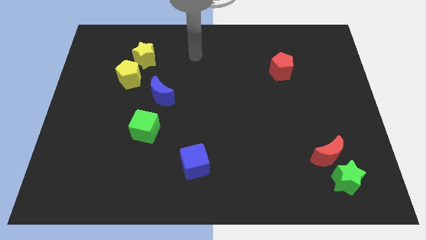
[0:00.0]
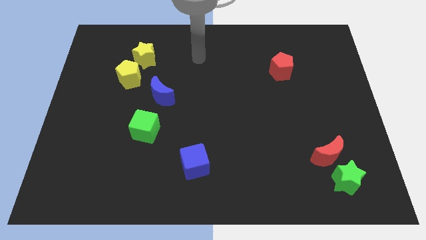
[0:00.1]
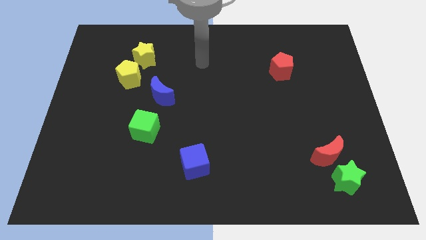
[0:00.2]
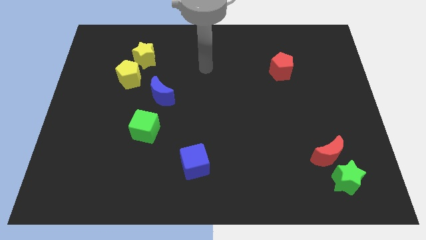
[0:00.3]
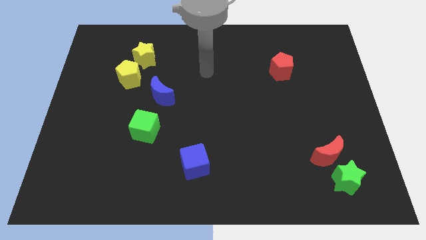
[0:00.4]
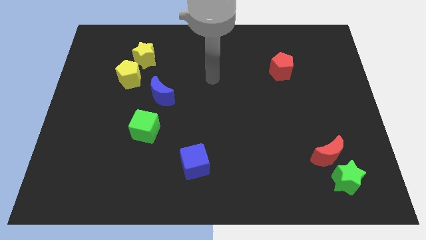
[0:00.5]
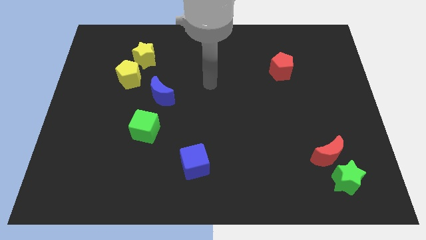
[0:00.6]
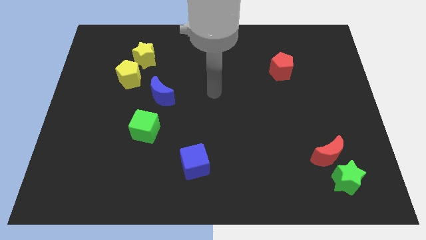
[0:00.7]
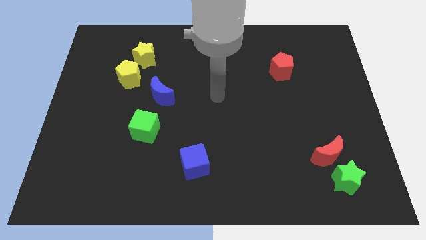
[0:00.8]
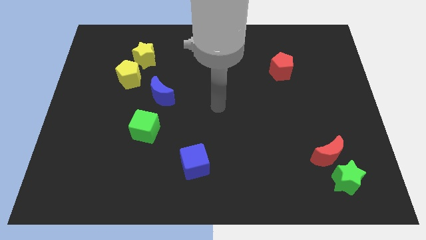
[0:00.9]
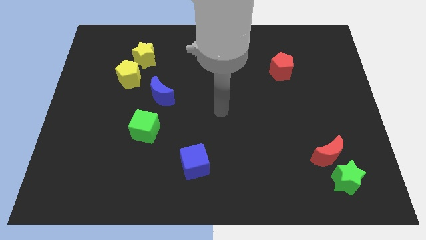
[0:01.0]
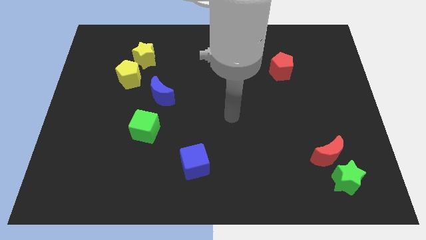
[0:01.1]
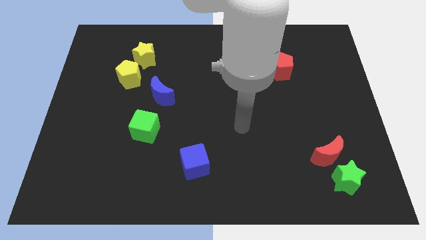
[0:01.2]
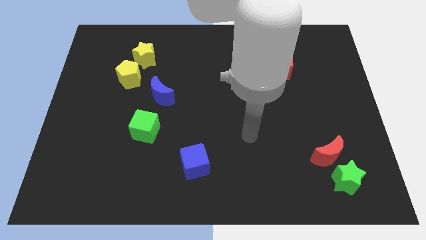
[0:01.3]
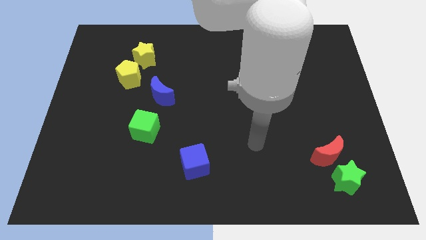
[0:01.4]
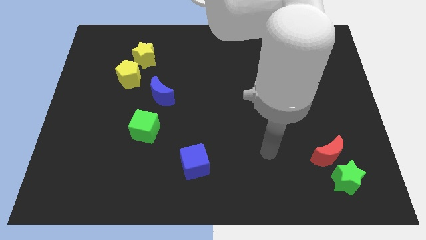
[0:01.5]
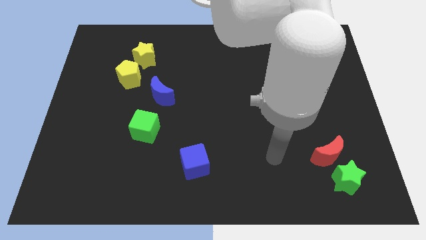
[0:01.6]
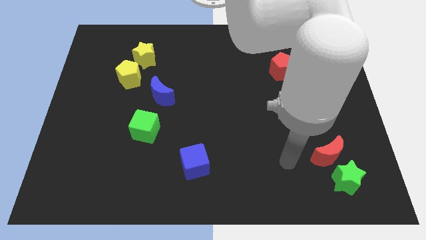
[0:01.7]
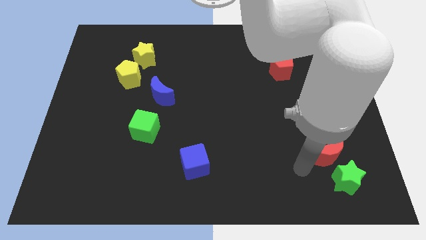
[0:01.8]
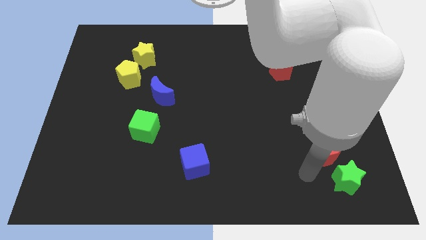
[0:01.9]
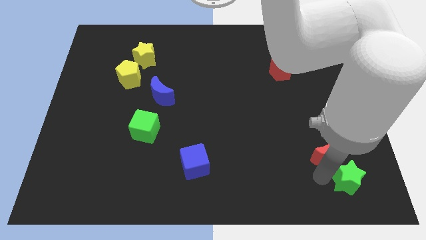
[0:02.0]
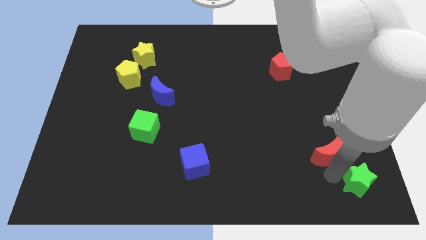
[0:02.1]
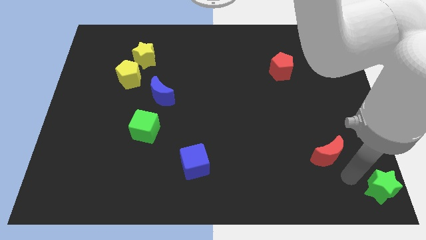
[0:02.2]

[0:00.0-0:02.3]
move the red moon away from the green star

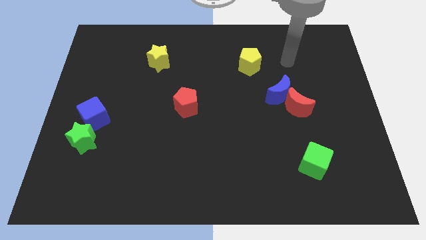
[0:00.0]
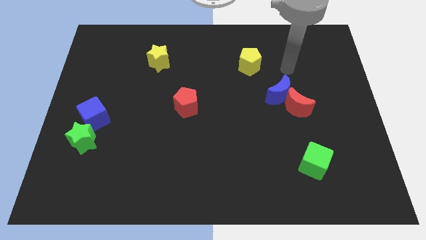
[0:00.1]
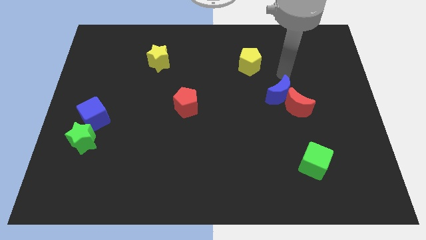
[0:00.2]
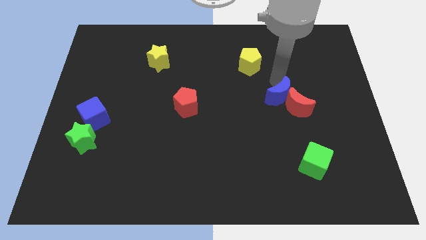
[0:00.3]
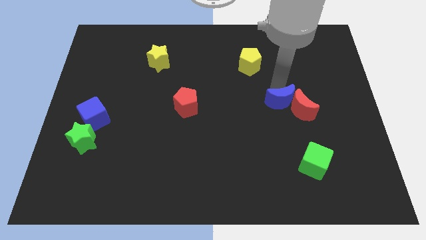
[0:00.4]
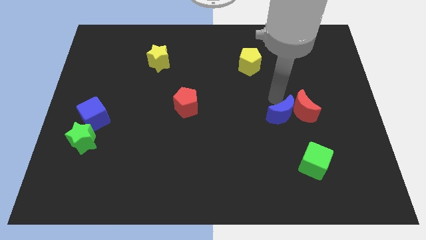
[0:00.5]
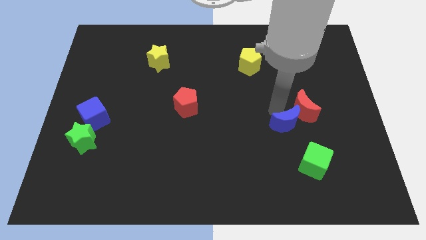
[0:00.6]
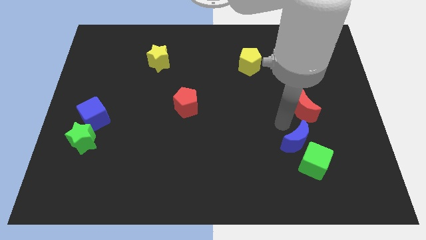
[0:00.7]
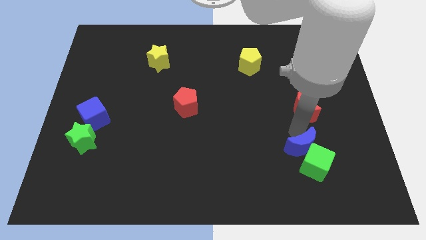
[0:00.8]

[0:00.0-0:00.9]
move the red moon away from the blue moon

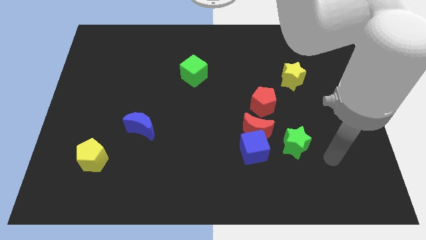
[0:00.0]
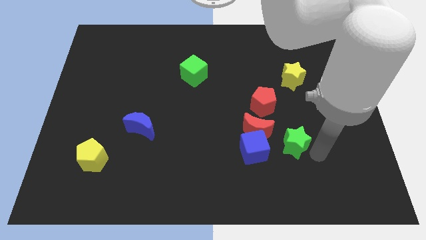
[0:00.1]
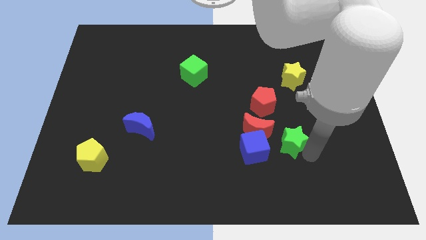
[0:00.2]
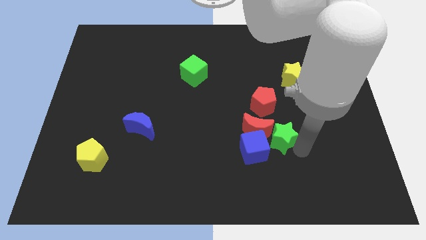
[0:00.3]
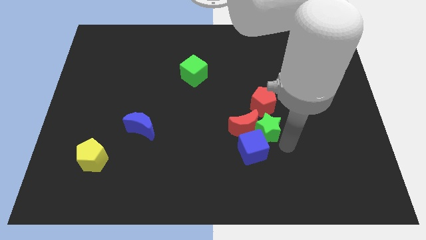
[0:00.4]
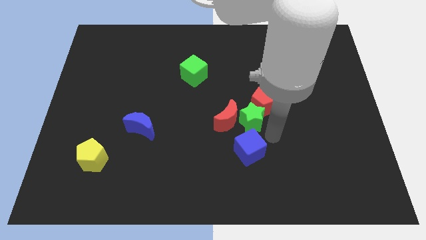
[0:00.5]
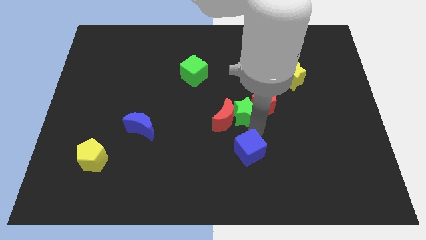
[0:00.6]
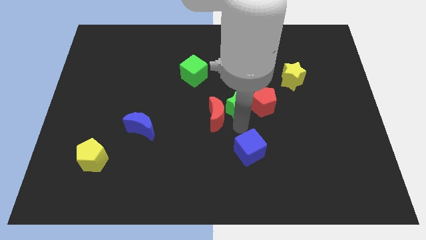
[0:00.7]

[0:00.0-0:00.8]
separate the blue cube from the red moon and green star

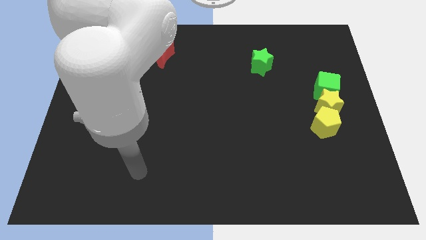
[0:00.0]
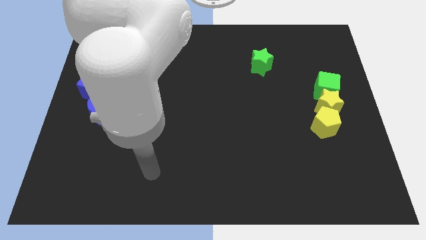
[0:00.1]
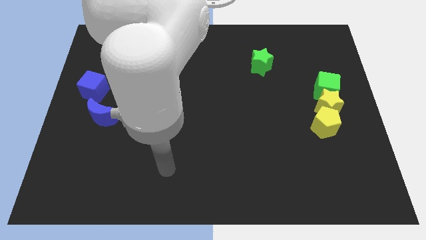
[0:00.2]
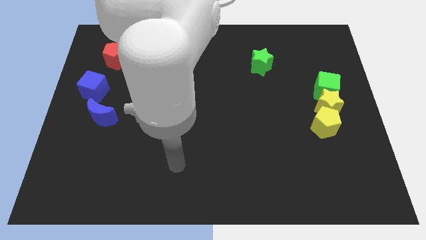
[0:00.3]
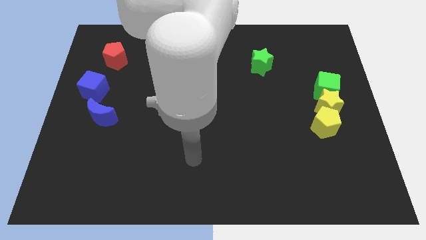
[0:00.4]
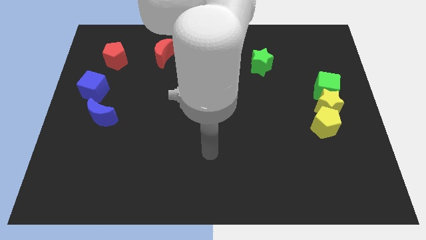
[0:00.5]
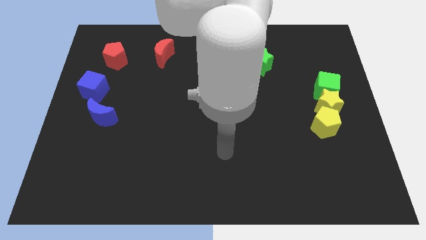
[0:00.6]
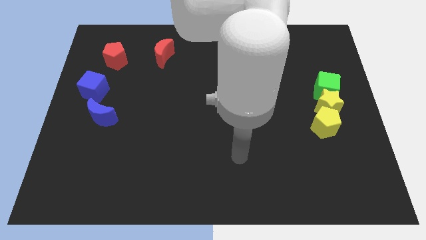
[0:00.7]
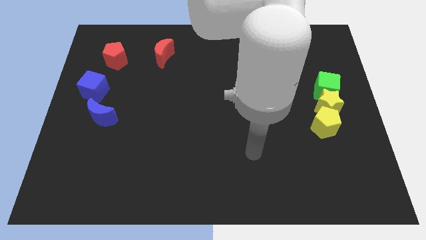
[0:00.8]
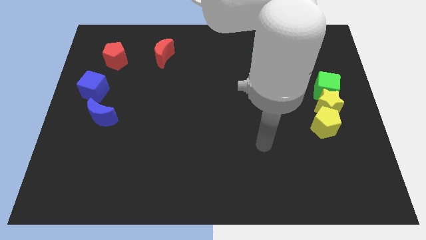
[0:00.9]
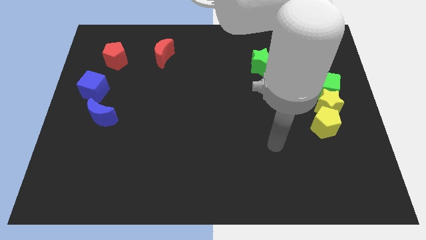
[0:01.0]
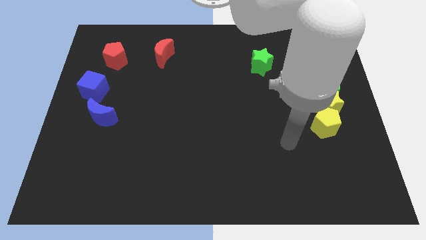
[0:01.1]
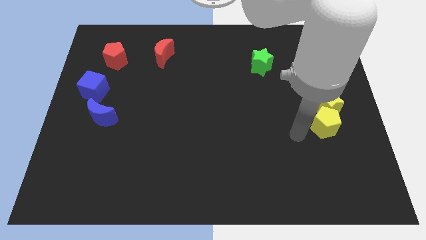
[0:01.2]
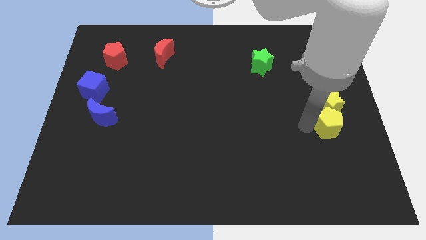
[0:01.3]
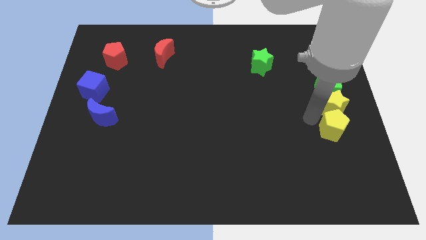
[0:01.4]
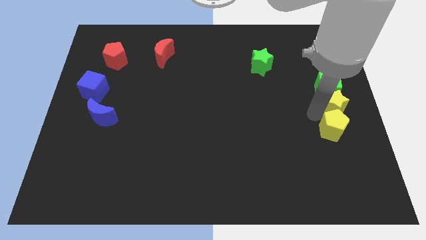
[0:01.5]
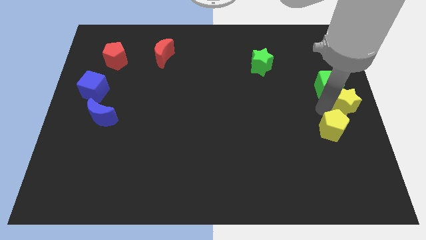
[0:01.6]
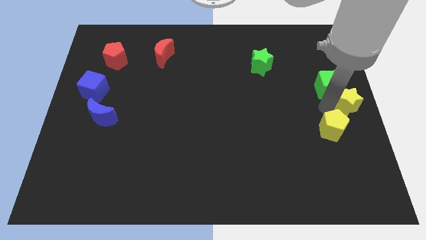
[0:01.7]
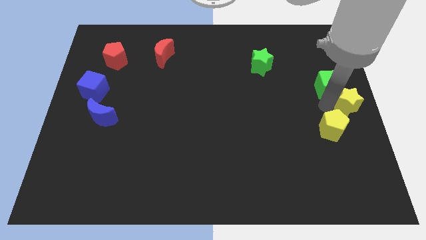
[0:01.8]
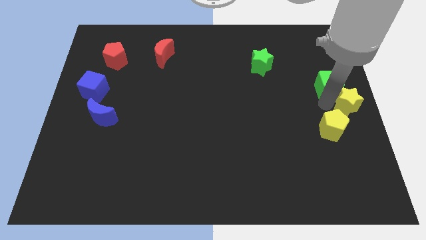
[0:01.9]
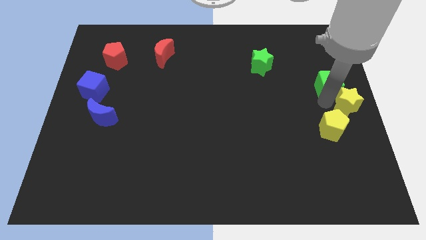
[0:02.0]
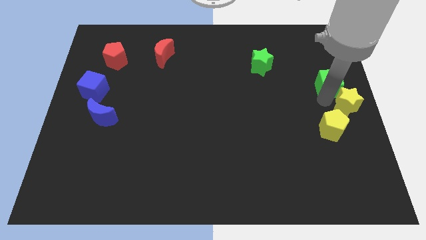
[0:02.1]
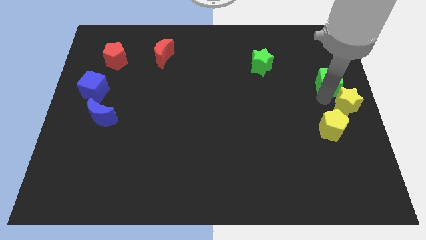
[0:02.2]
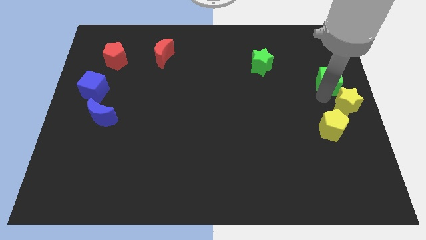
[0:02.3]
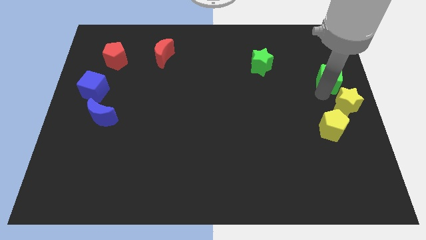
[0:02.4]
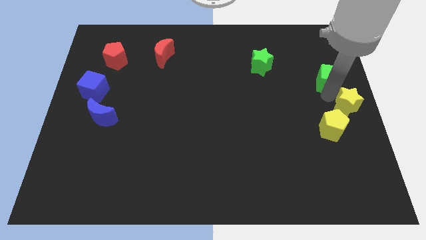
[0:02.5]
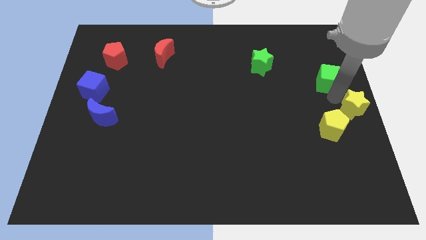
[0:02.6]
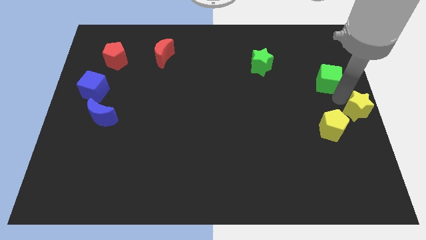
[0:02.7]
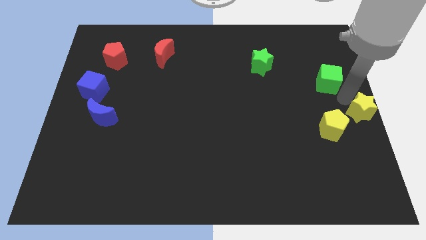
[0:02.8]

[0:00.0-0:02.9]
move the green cube away from the yellow star

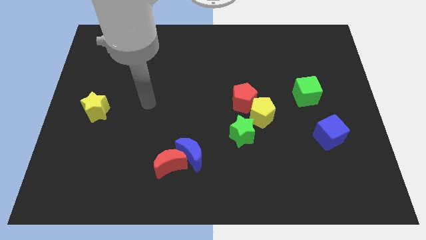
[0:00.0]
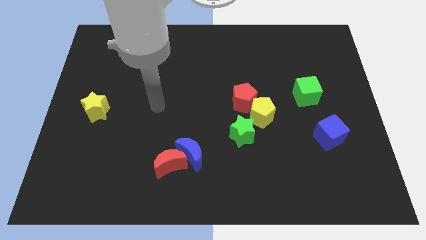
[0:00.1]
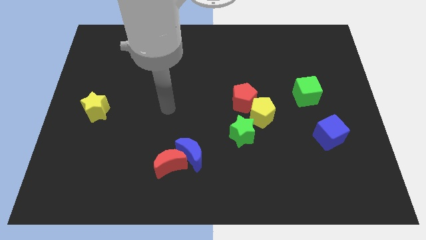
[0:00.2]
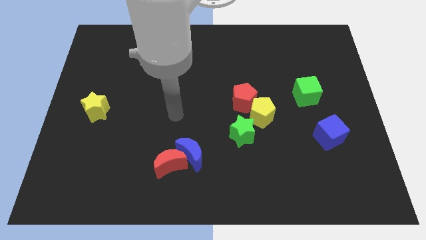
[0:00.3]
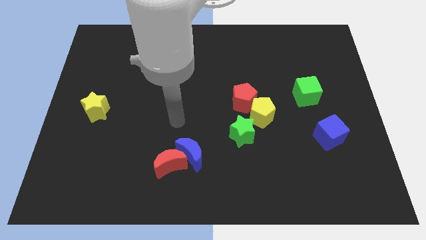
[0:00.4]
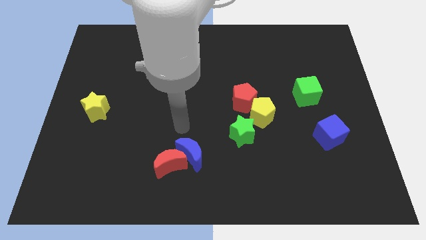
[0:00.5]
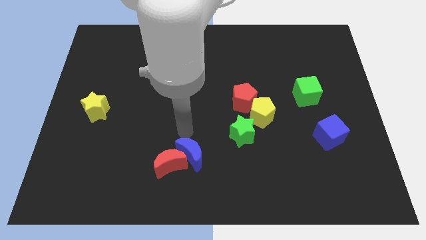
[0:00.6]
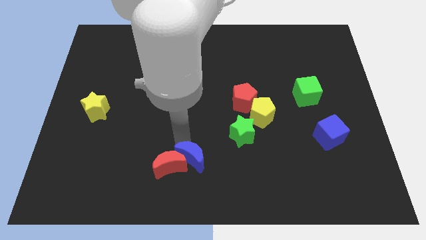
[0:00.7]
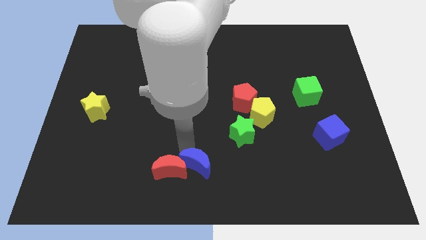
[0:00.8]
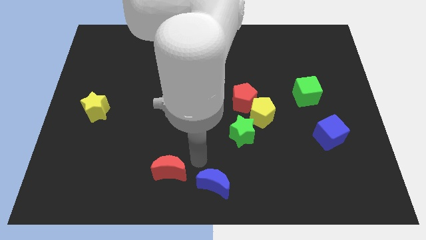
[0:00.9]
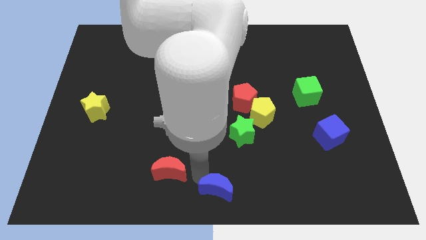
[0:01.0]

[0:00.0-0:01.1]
separate the red moon from the blue moon

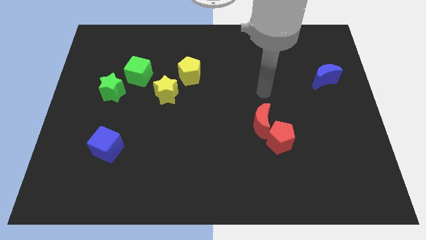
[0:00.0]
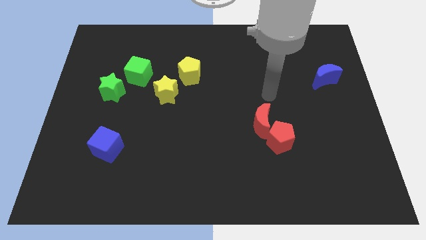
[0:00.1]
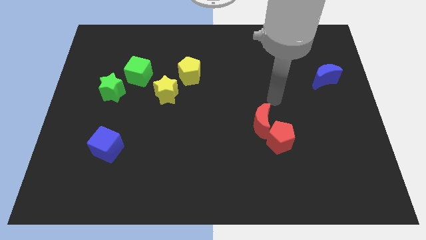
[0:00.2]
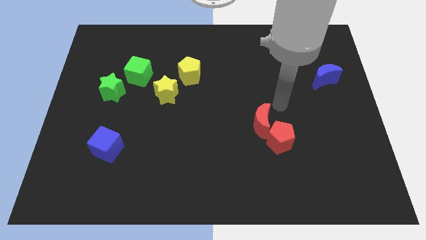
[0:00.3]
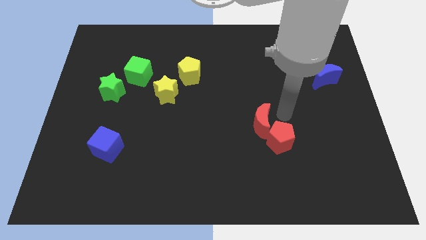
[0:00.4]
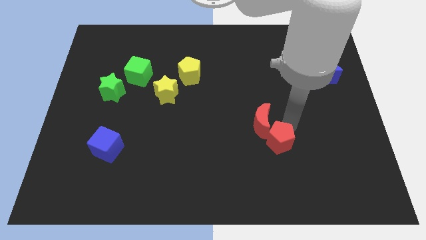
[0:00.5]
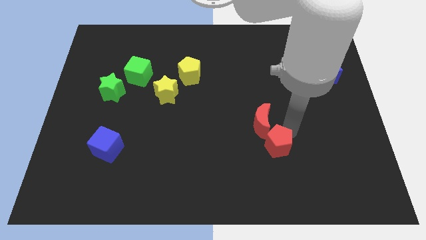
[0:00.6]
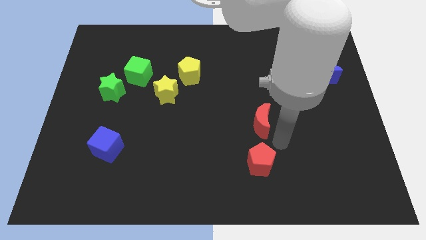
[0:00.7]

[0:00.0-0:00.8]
separate the red moon from the red pentagon

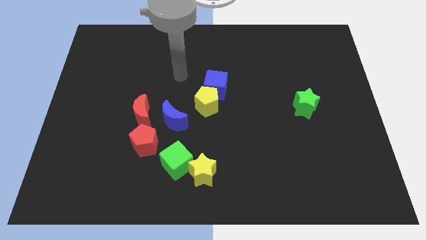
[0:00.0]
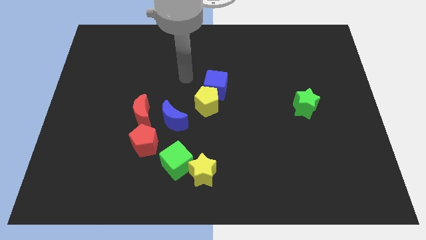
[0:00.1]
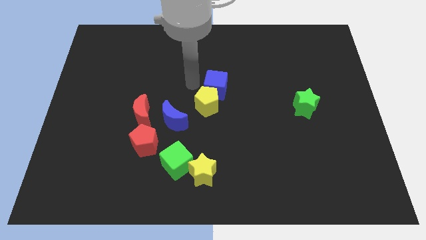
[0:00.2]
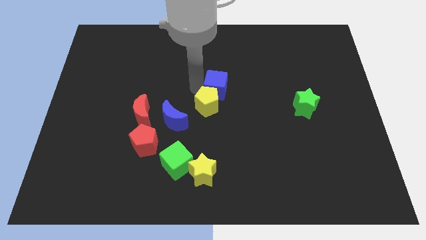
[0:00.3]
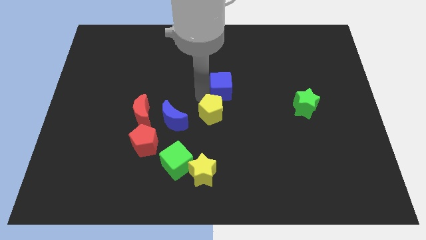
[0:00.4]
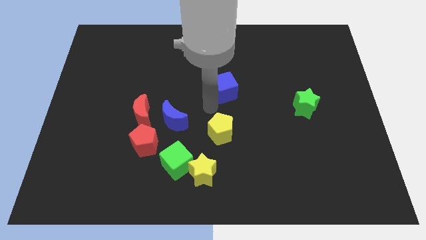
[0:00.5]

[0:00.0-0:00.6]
move the blue cube away from the yellow pentagon
